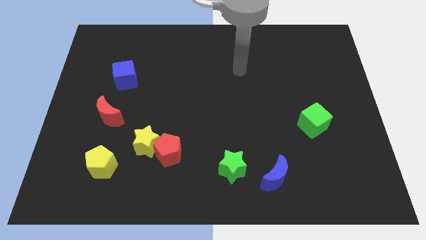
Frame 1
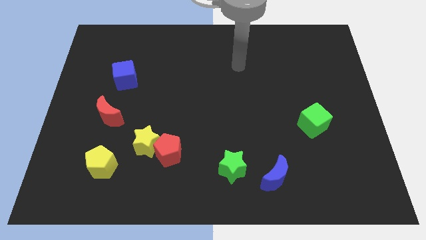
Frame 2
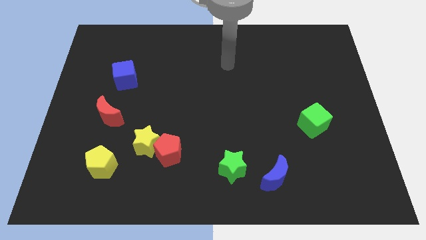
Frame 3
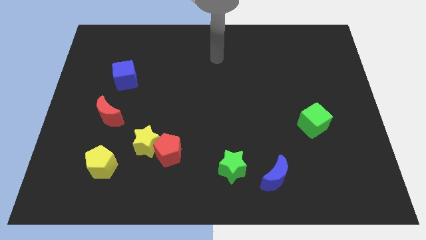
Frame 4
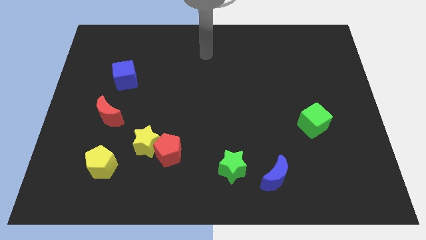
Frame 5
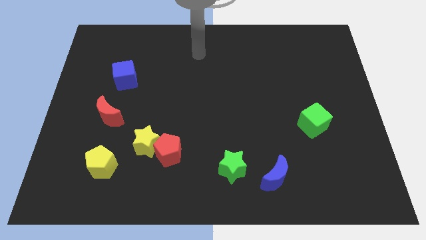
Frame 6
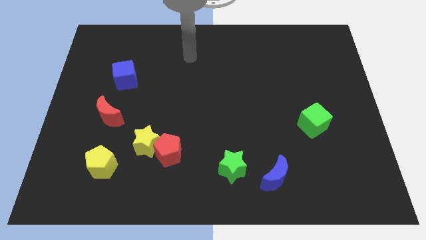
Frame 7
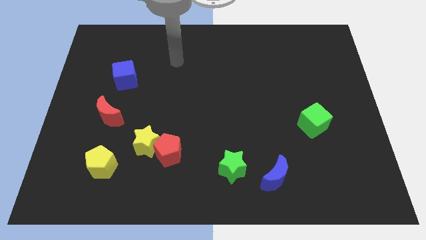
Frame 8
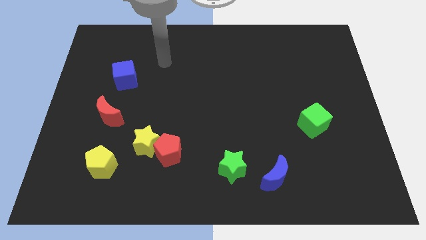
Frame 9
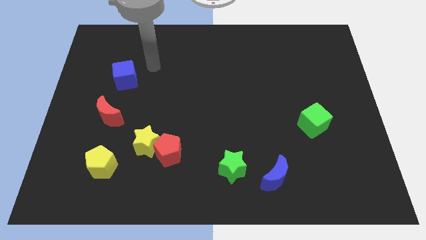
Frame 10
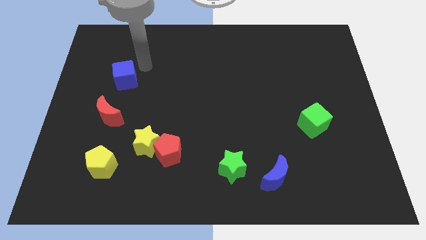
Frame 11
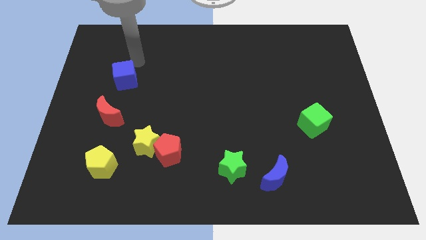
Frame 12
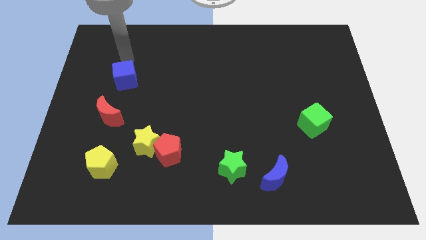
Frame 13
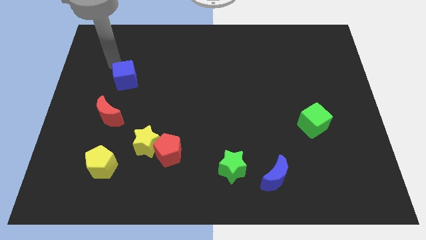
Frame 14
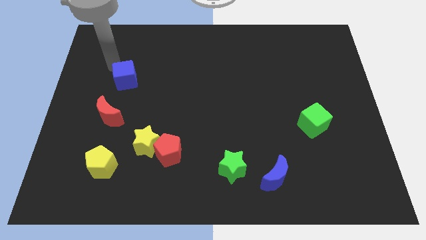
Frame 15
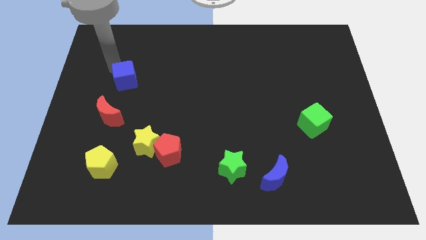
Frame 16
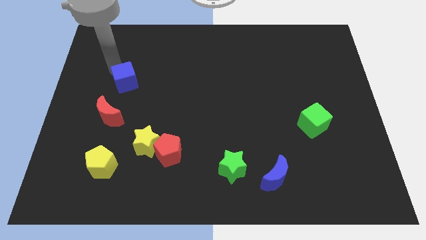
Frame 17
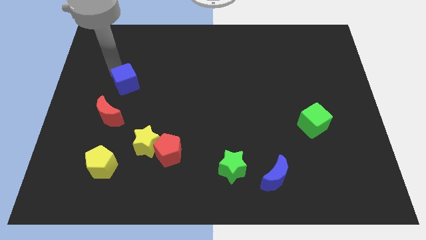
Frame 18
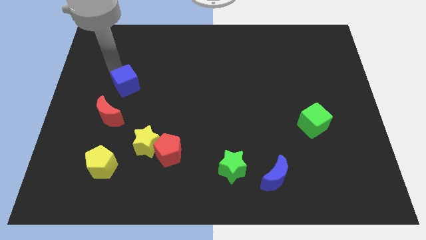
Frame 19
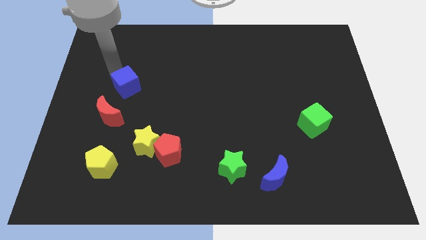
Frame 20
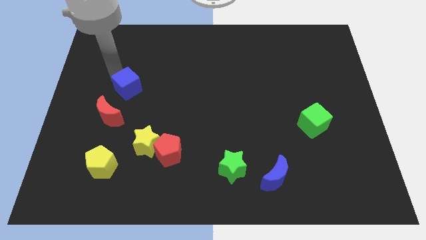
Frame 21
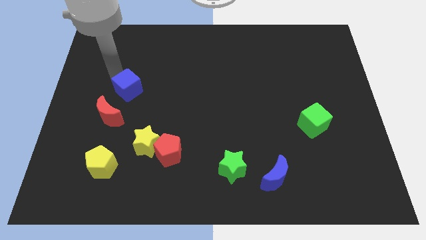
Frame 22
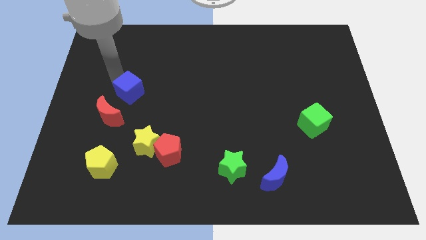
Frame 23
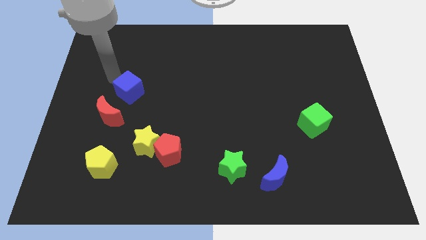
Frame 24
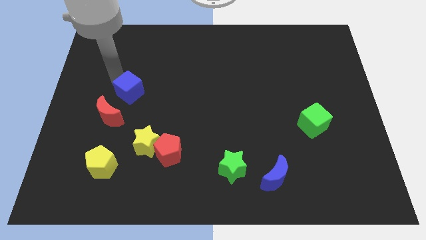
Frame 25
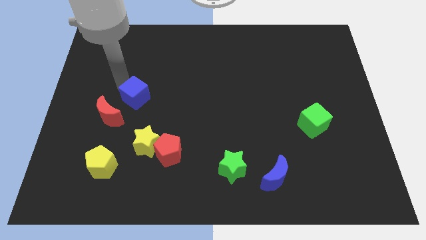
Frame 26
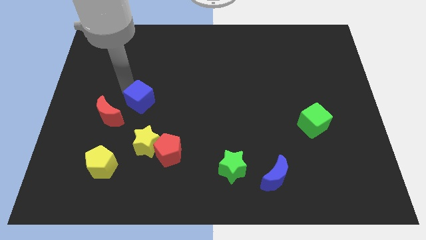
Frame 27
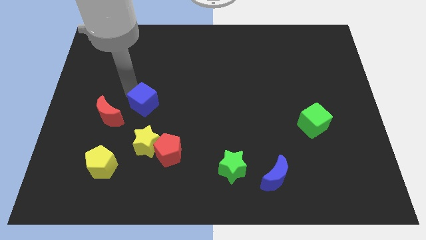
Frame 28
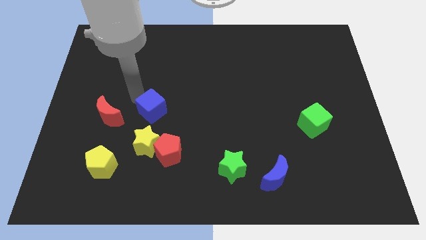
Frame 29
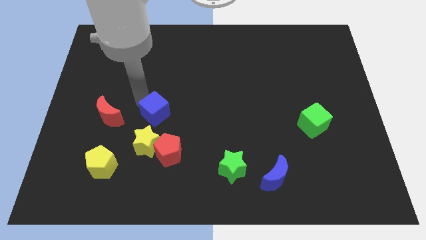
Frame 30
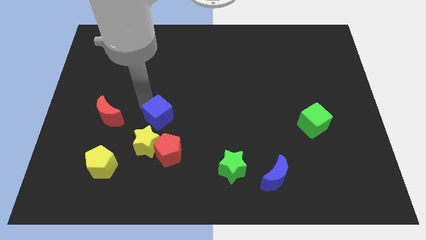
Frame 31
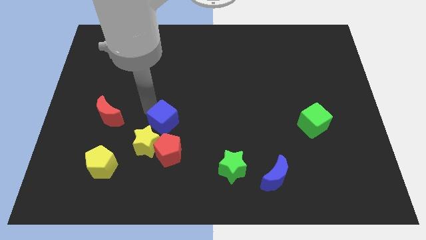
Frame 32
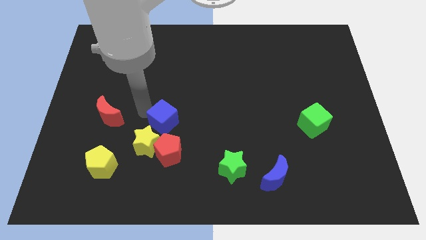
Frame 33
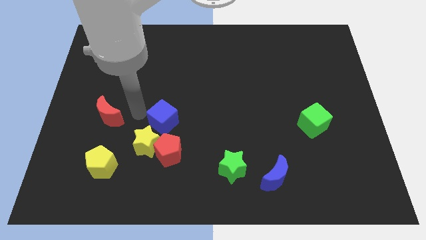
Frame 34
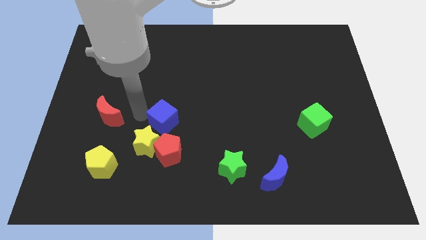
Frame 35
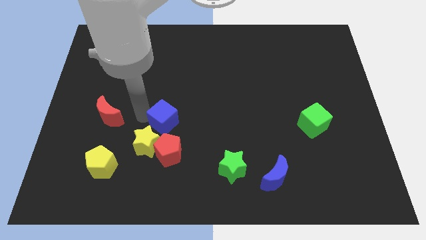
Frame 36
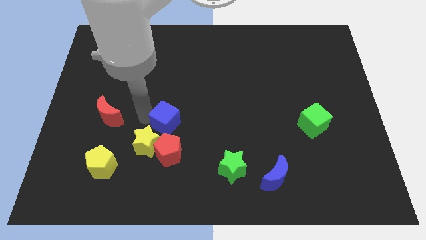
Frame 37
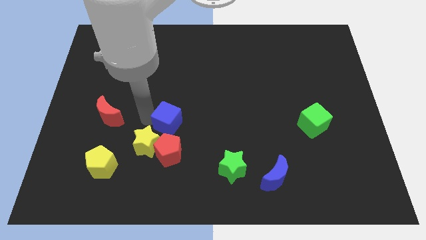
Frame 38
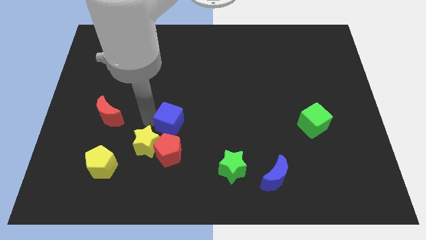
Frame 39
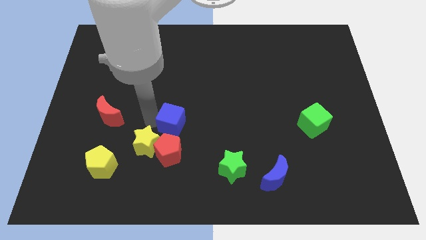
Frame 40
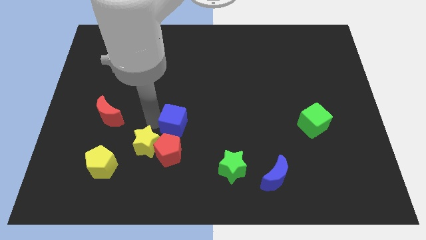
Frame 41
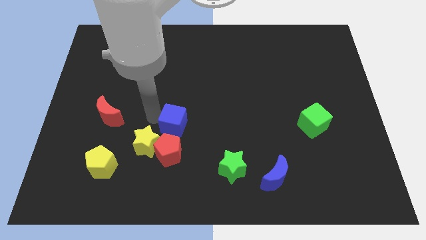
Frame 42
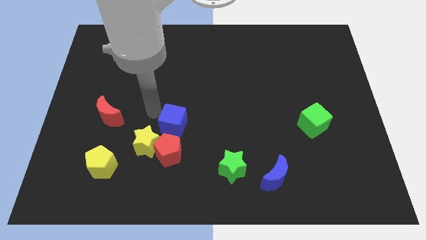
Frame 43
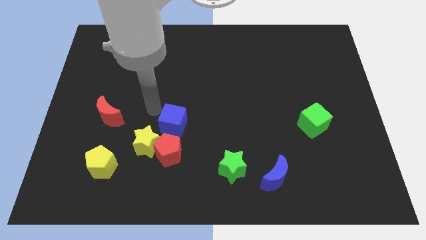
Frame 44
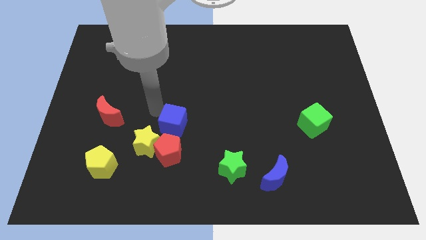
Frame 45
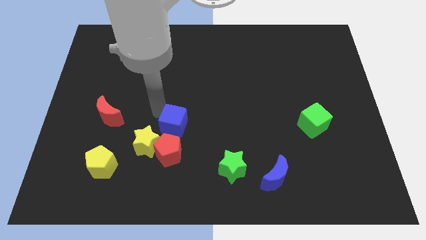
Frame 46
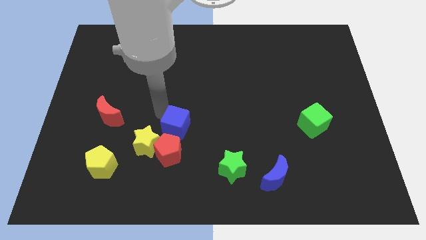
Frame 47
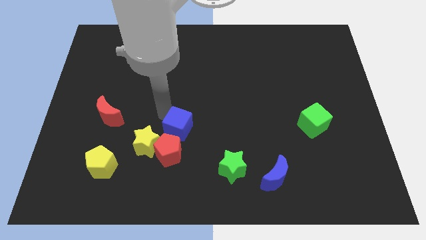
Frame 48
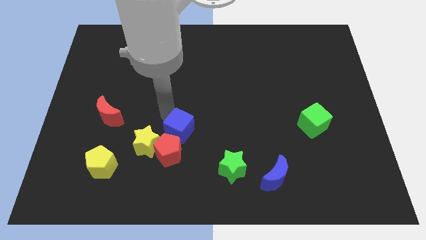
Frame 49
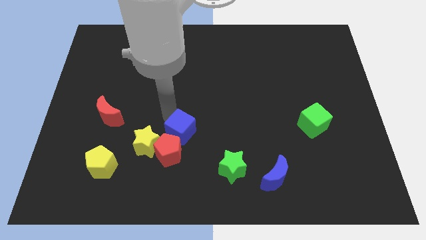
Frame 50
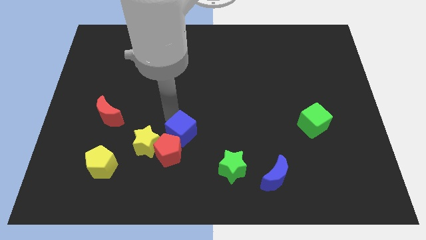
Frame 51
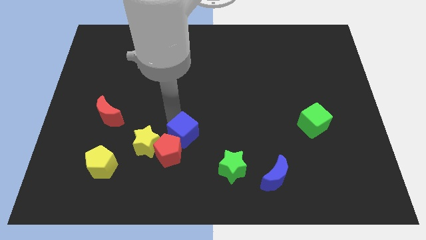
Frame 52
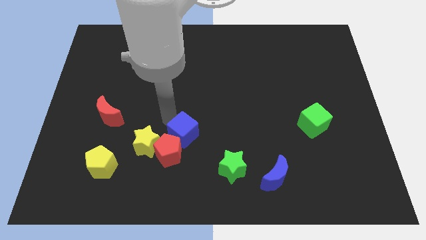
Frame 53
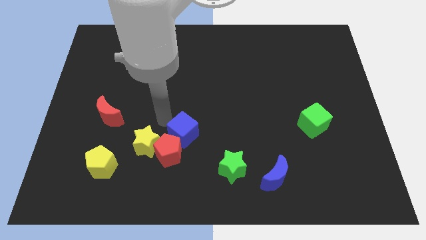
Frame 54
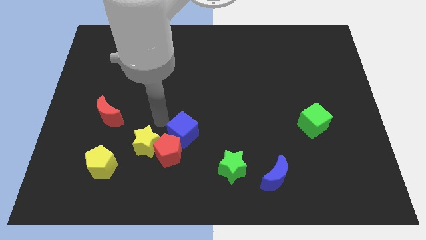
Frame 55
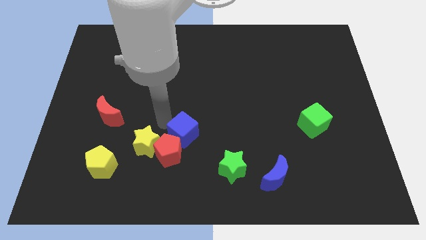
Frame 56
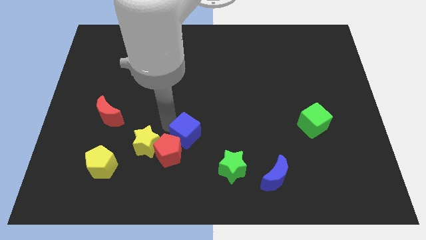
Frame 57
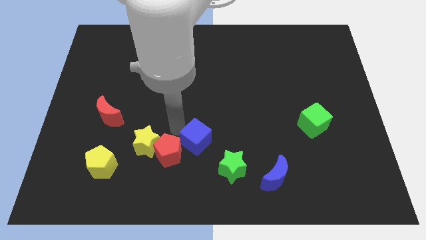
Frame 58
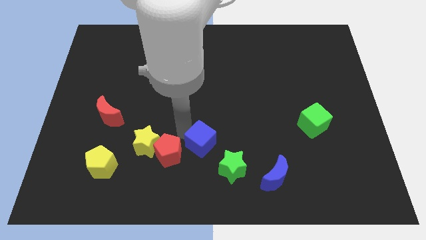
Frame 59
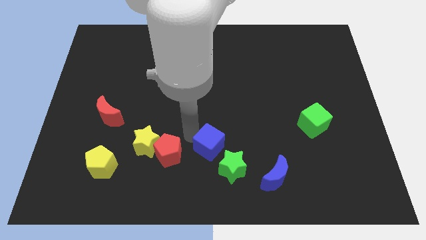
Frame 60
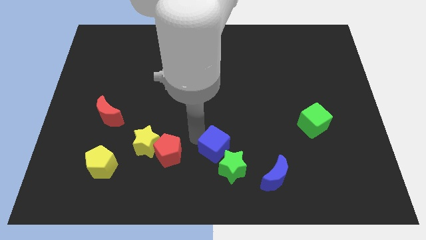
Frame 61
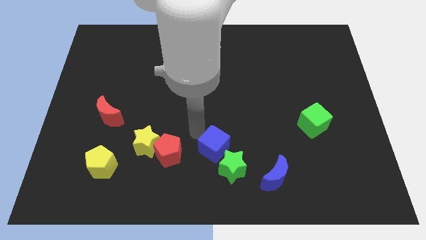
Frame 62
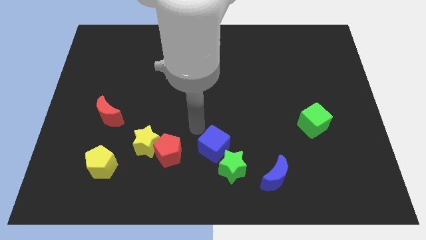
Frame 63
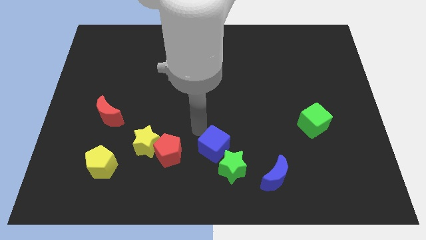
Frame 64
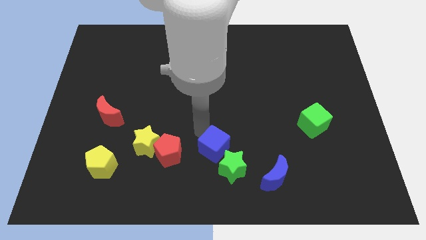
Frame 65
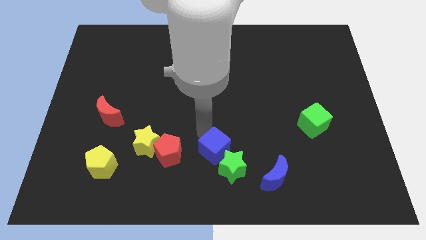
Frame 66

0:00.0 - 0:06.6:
push the blue cube next to the green star
